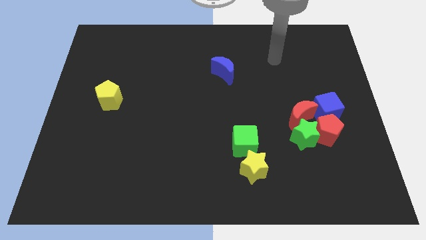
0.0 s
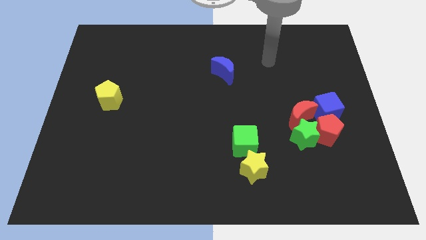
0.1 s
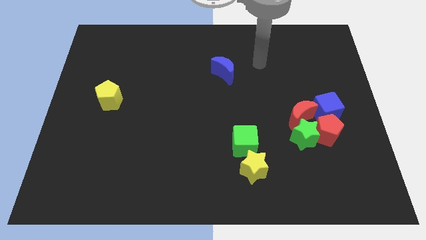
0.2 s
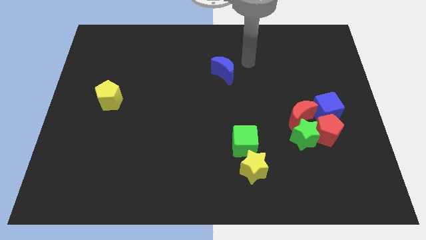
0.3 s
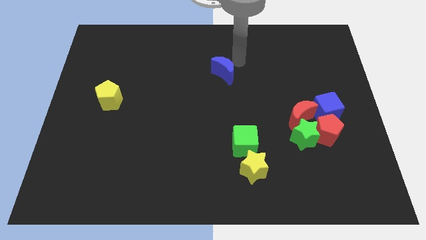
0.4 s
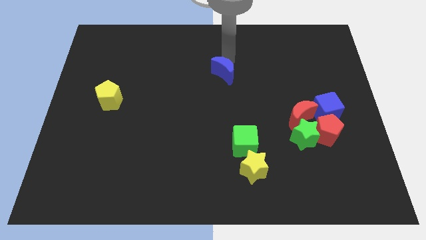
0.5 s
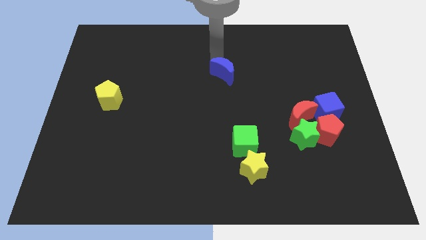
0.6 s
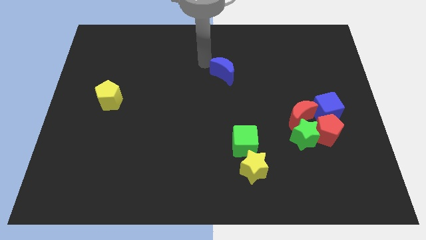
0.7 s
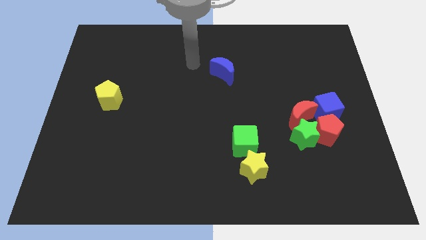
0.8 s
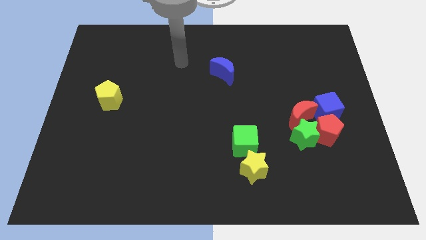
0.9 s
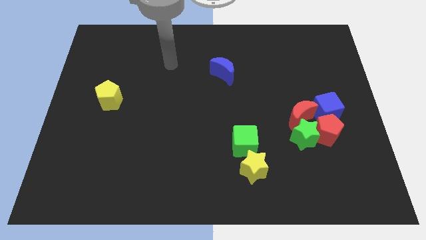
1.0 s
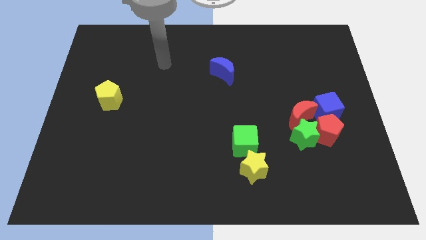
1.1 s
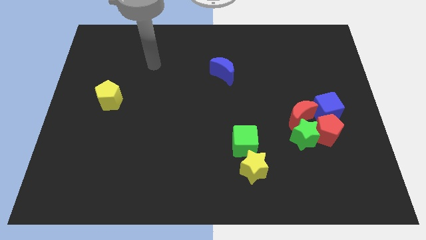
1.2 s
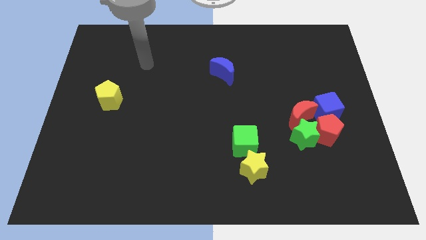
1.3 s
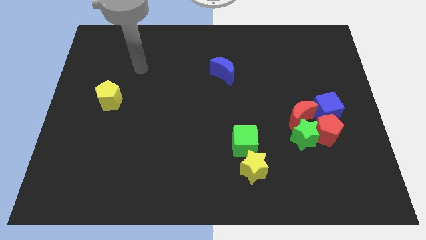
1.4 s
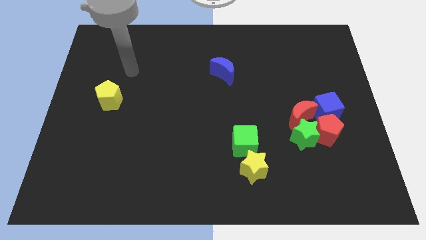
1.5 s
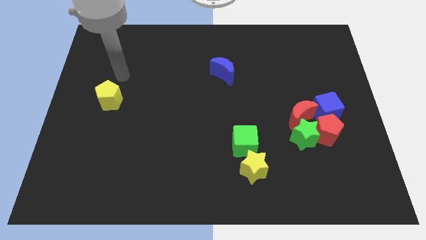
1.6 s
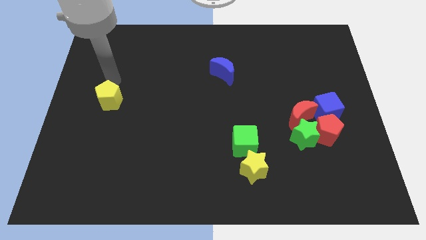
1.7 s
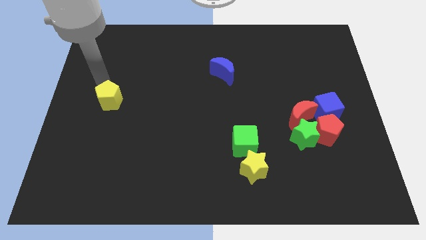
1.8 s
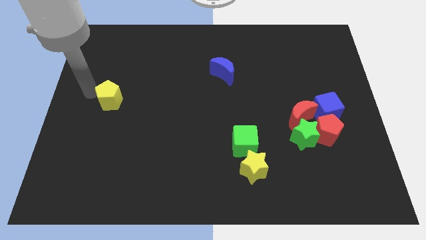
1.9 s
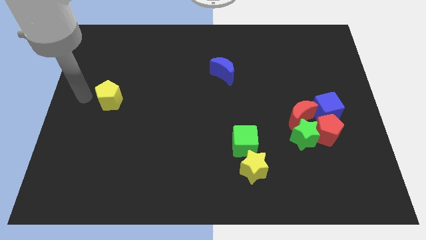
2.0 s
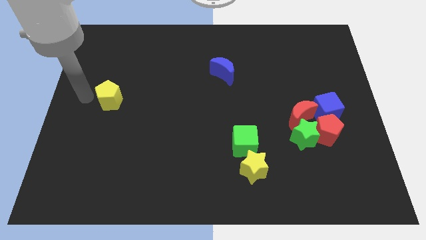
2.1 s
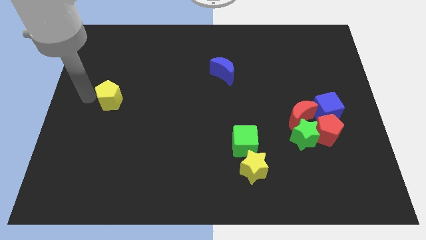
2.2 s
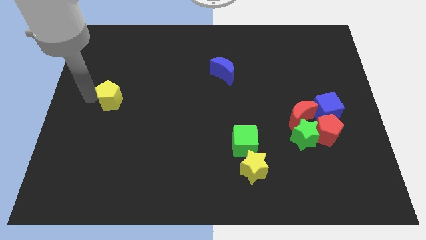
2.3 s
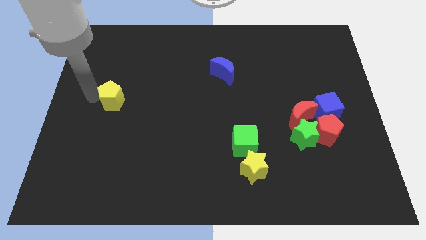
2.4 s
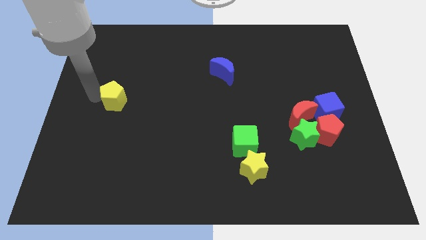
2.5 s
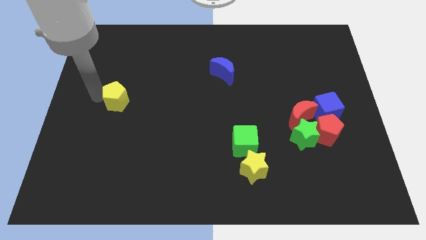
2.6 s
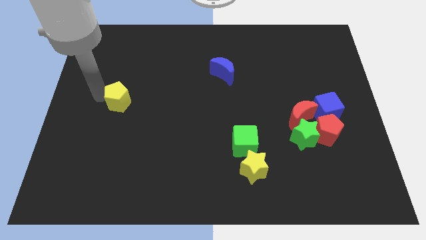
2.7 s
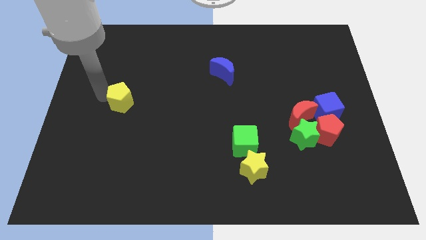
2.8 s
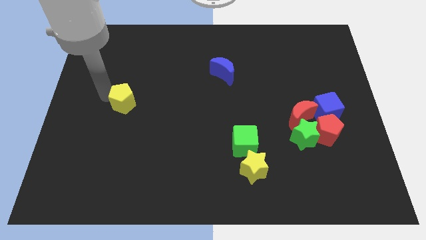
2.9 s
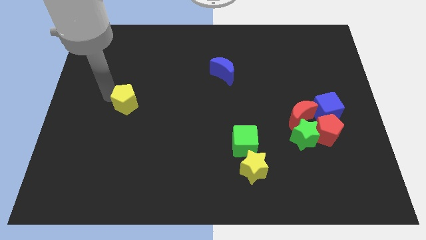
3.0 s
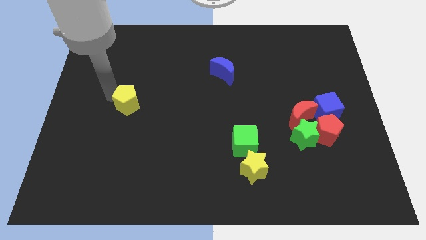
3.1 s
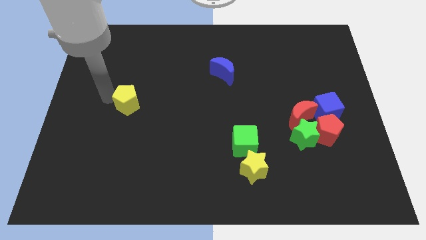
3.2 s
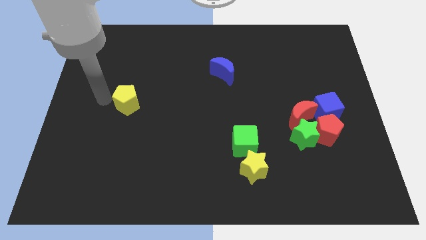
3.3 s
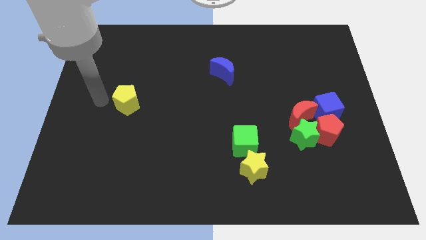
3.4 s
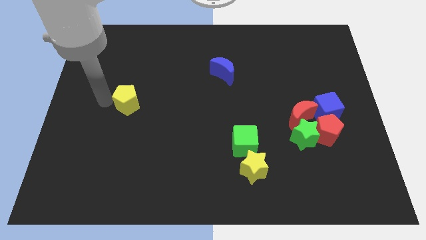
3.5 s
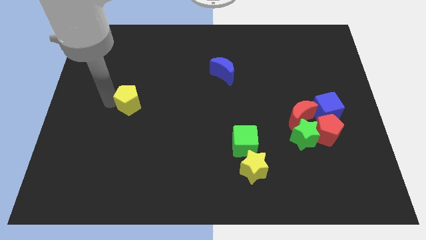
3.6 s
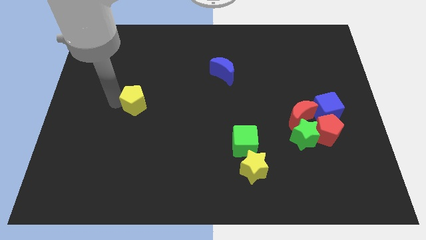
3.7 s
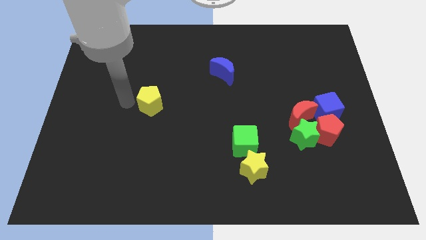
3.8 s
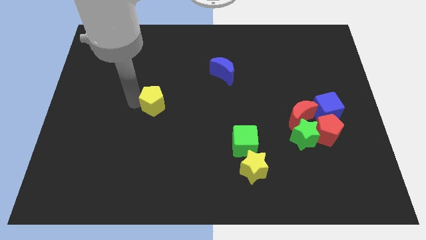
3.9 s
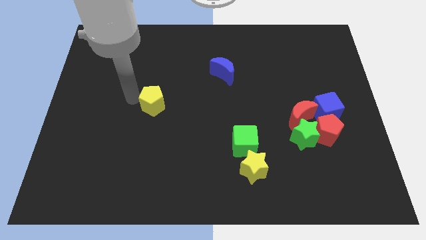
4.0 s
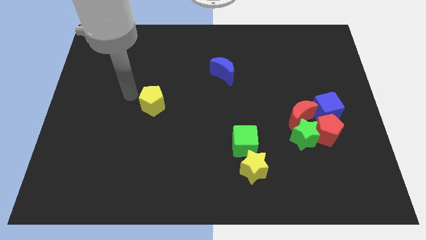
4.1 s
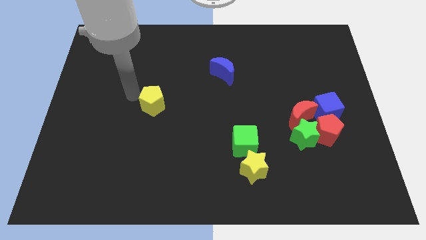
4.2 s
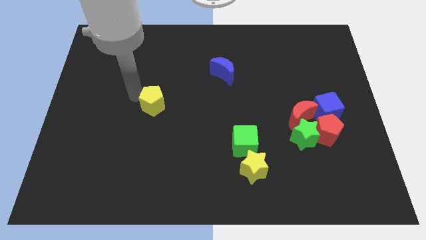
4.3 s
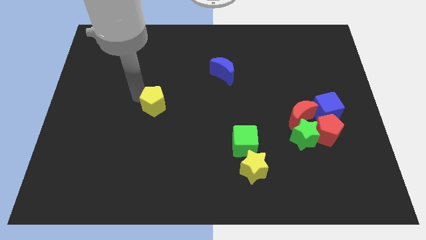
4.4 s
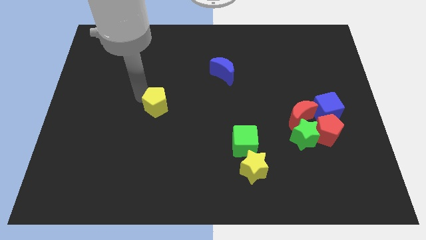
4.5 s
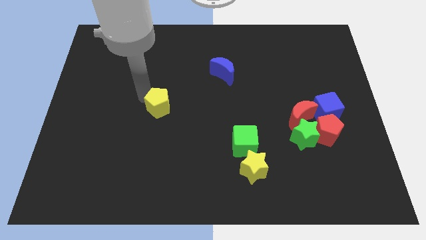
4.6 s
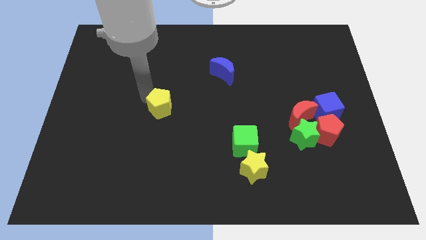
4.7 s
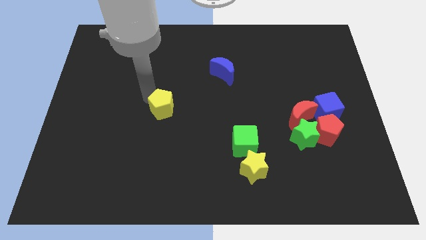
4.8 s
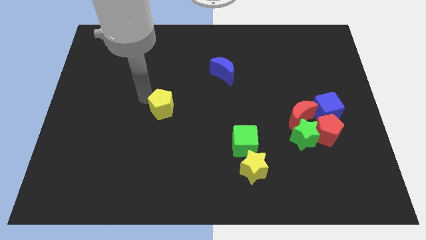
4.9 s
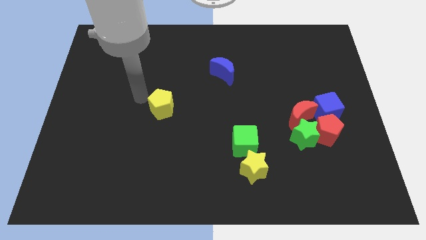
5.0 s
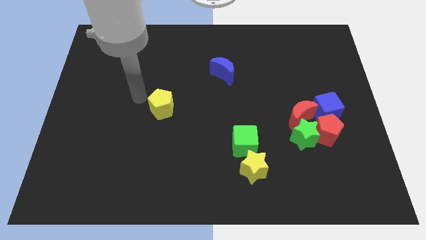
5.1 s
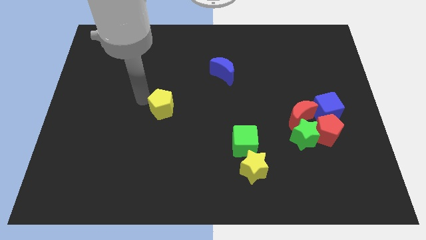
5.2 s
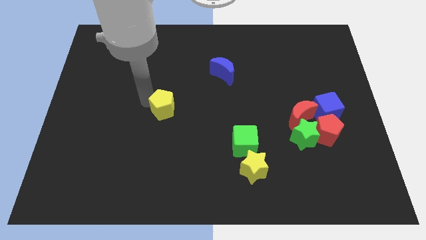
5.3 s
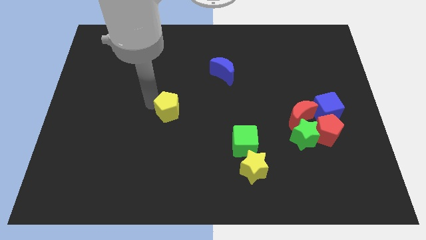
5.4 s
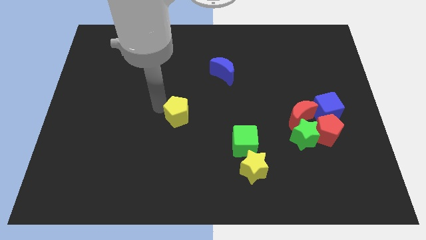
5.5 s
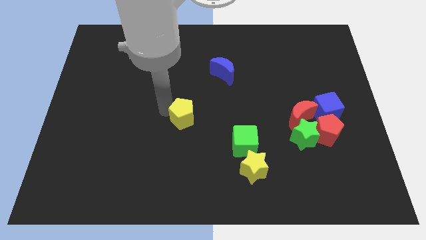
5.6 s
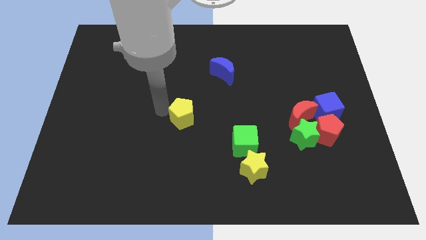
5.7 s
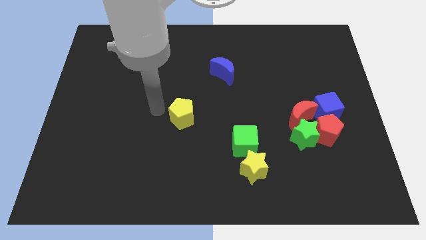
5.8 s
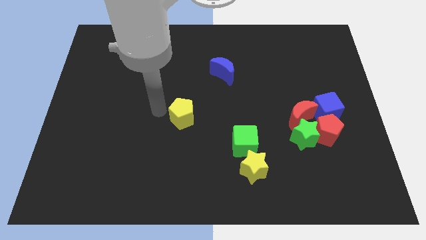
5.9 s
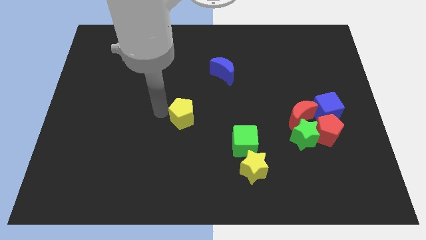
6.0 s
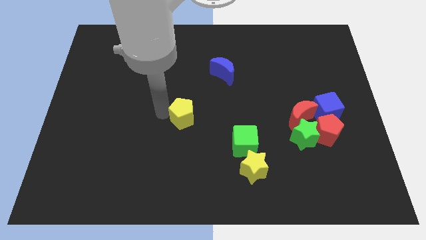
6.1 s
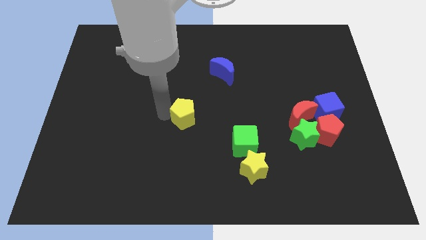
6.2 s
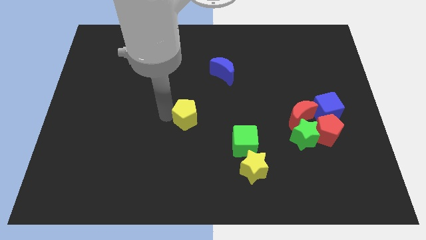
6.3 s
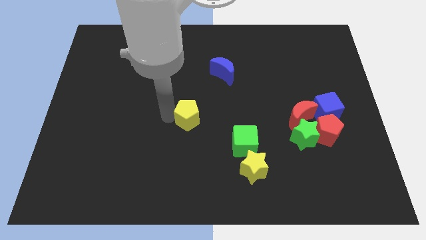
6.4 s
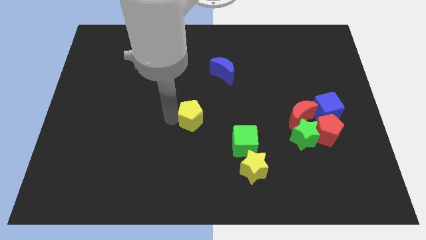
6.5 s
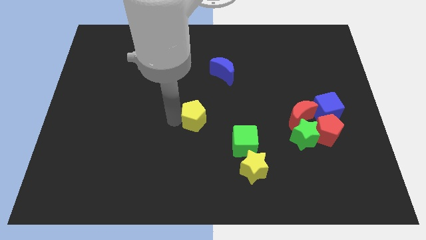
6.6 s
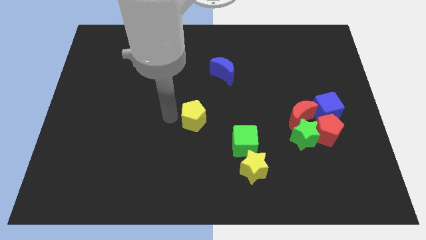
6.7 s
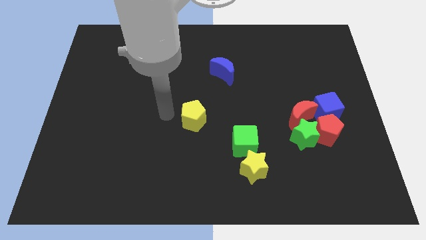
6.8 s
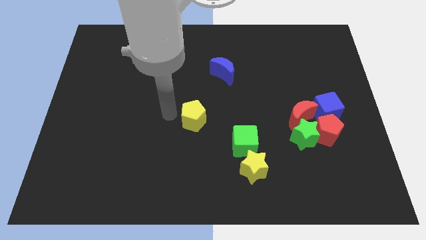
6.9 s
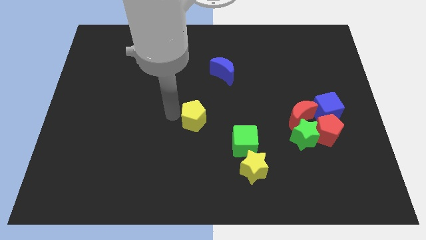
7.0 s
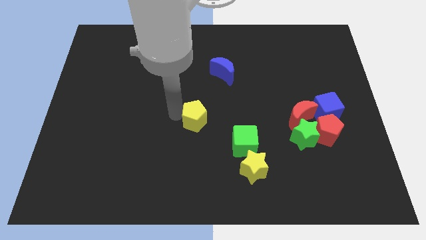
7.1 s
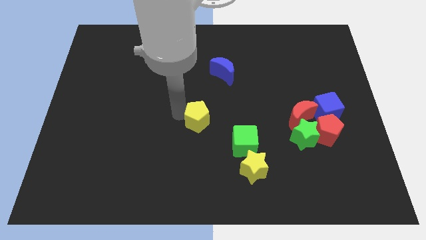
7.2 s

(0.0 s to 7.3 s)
slide the yellow pentagon diagonally up and to the left of the green cube

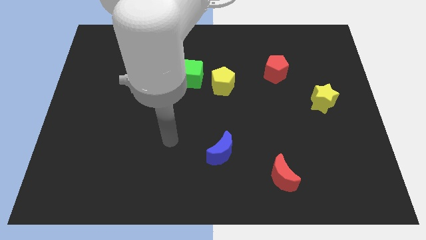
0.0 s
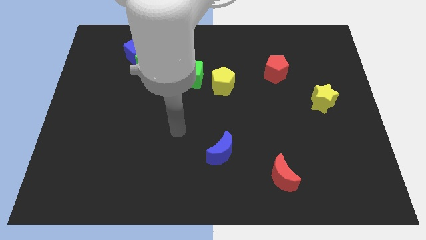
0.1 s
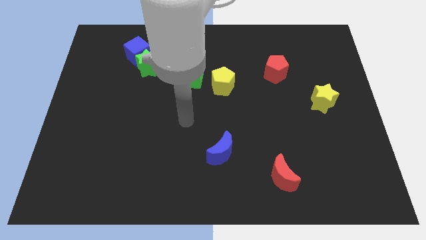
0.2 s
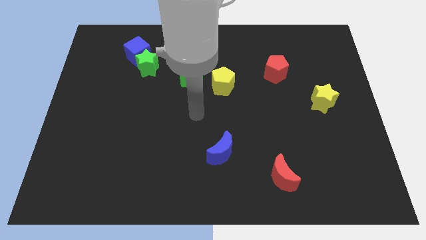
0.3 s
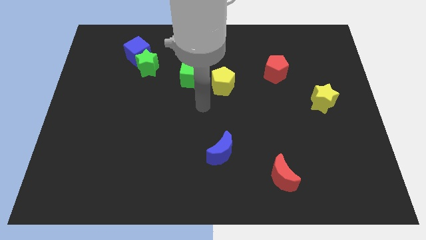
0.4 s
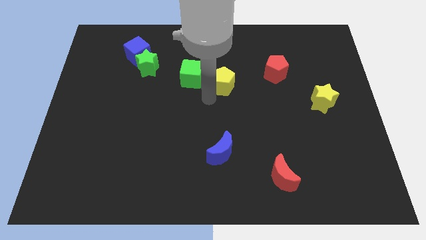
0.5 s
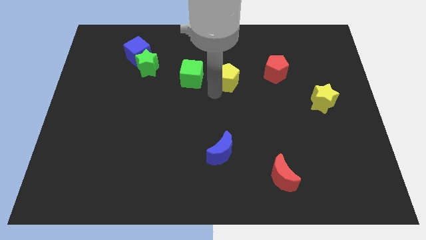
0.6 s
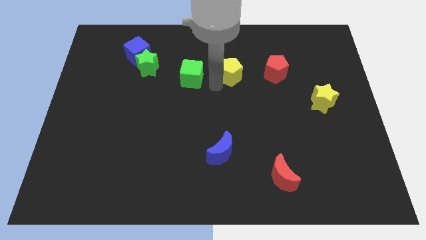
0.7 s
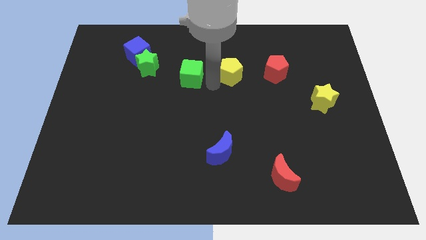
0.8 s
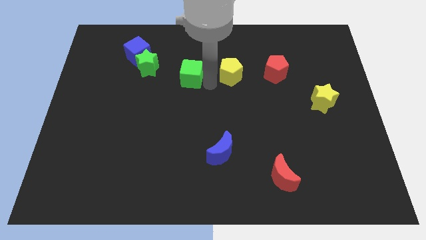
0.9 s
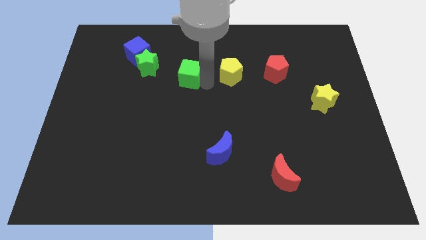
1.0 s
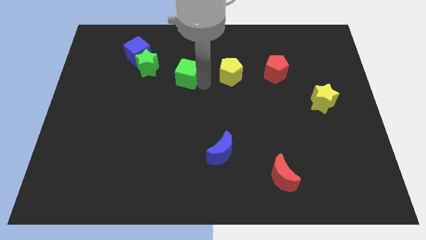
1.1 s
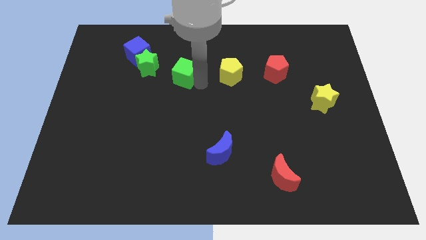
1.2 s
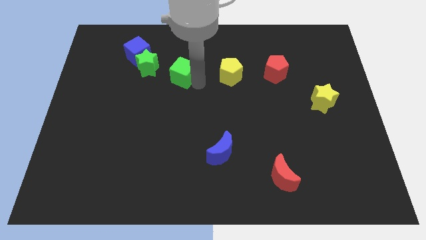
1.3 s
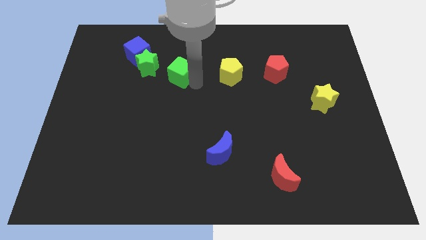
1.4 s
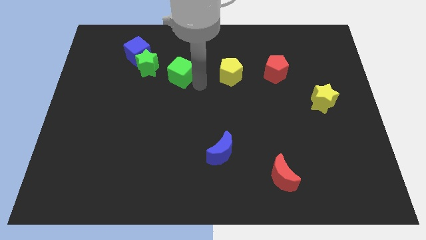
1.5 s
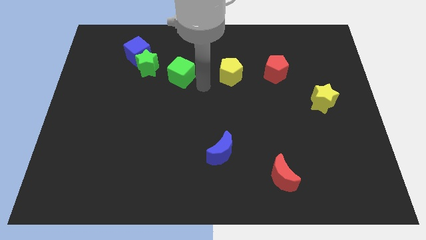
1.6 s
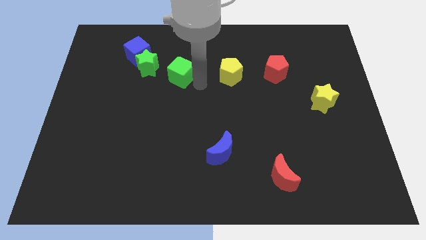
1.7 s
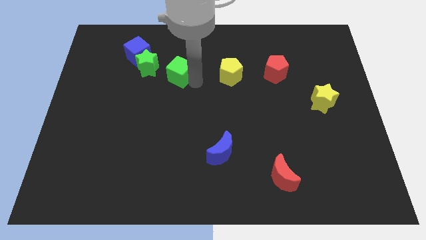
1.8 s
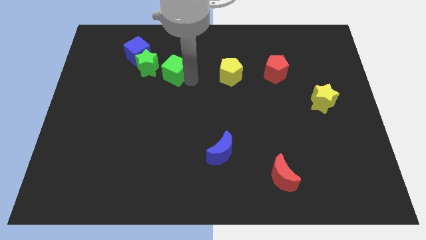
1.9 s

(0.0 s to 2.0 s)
slide the green cube diagonally down and to the right of the blue cube
